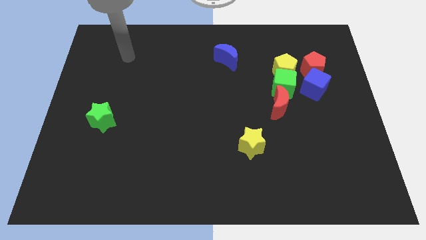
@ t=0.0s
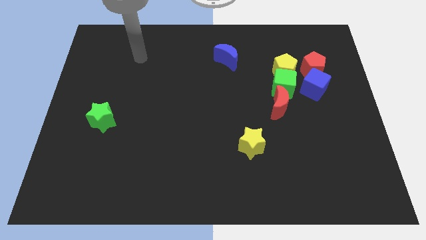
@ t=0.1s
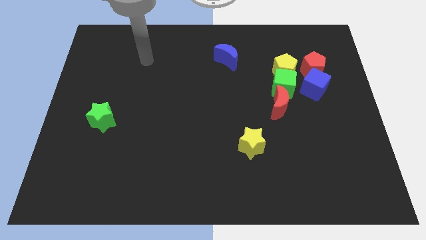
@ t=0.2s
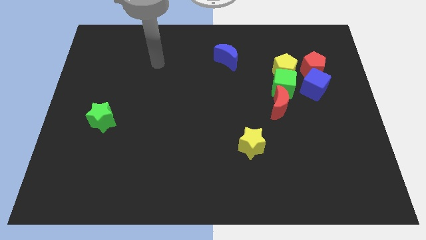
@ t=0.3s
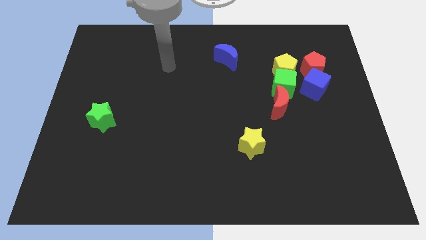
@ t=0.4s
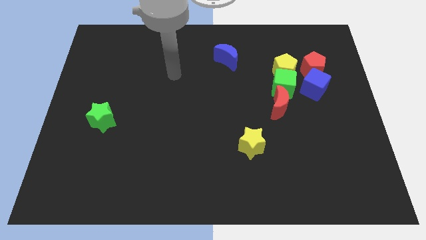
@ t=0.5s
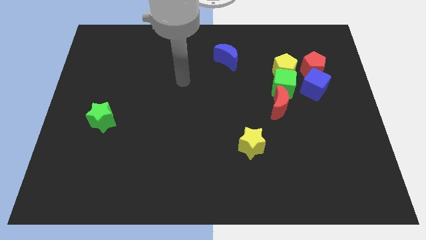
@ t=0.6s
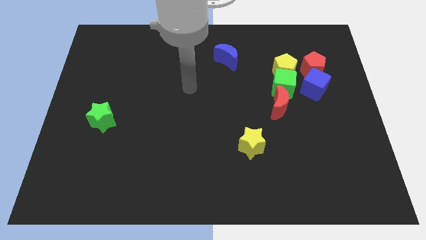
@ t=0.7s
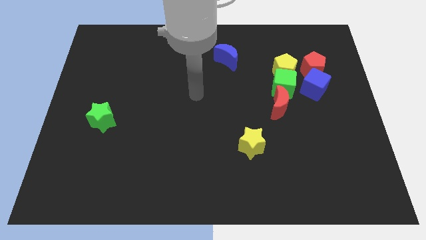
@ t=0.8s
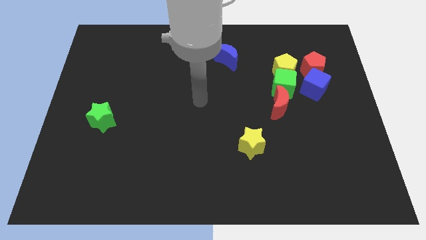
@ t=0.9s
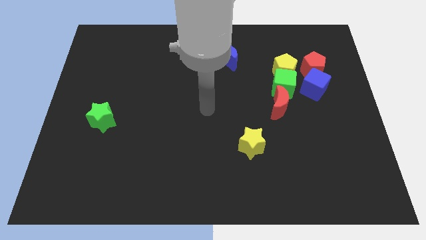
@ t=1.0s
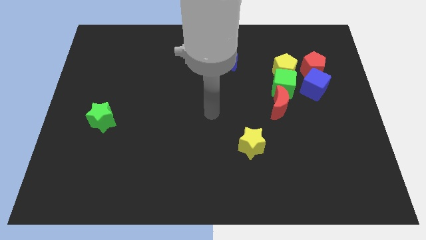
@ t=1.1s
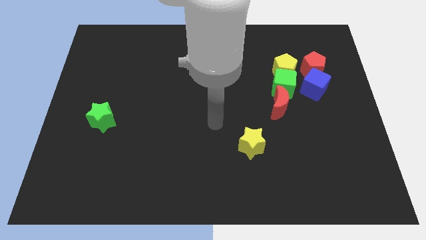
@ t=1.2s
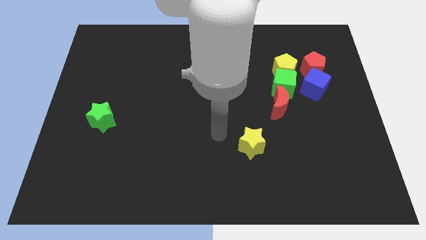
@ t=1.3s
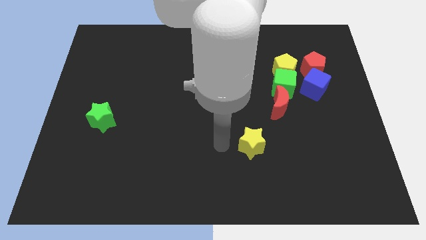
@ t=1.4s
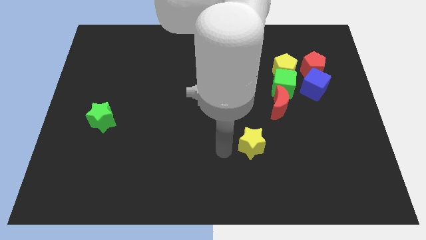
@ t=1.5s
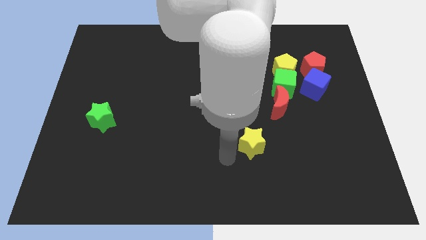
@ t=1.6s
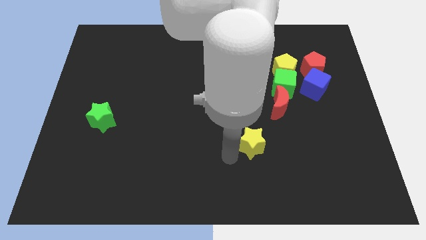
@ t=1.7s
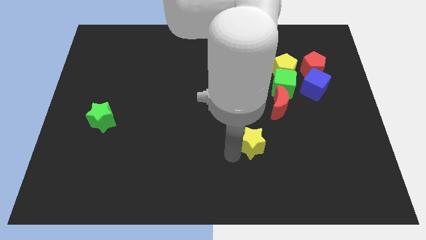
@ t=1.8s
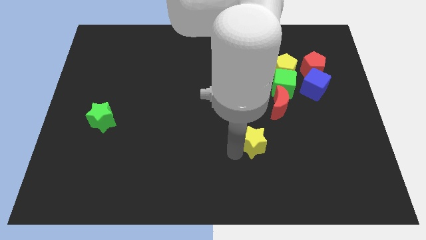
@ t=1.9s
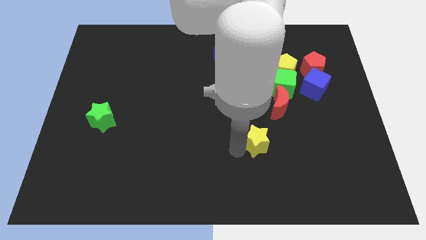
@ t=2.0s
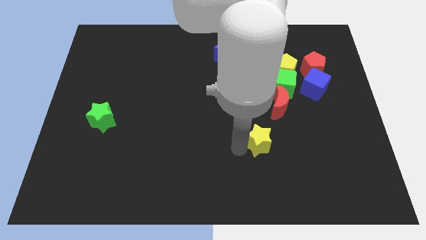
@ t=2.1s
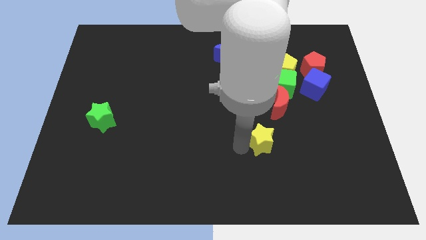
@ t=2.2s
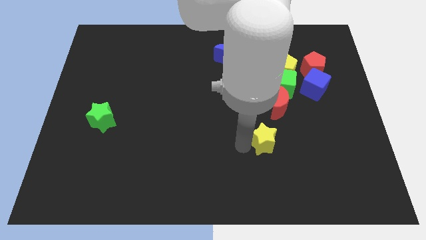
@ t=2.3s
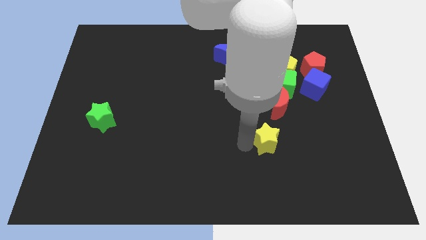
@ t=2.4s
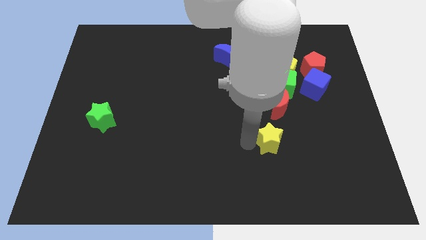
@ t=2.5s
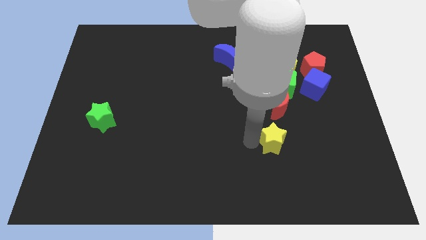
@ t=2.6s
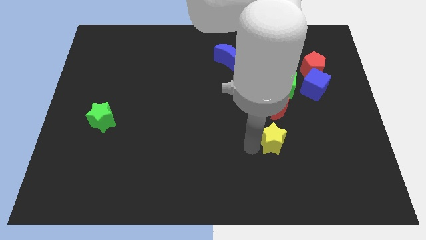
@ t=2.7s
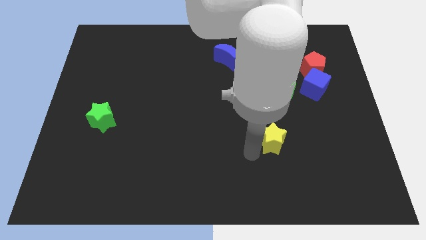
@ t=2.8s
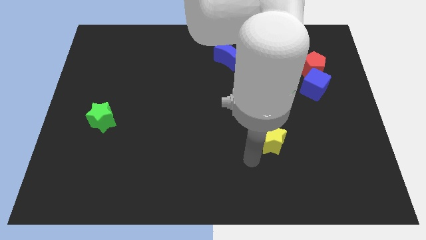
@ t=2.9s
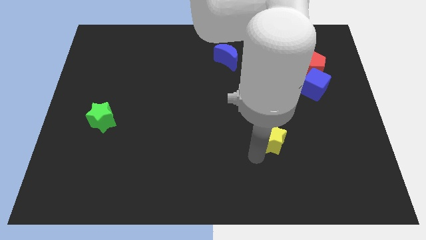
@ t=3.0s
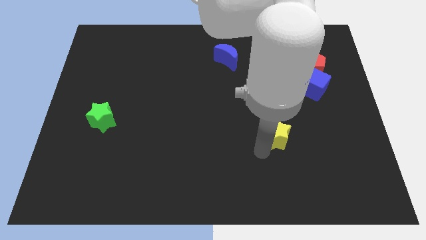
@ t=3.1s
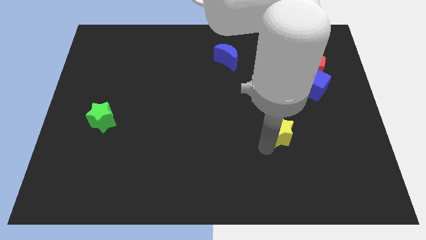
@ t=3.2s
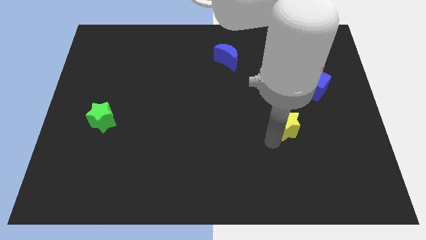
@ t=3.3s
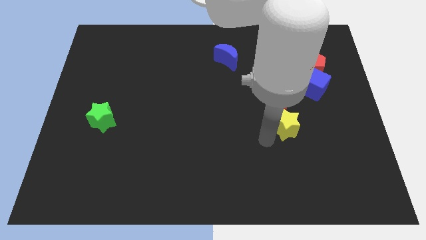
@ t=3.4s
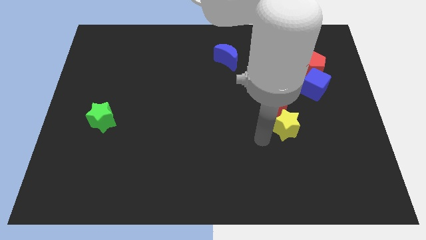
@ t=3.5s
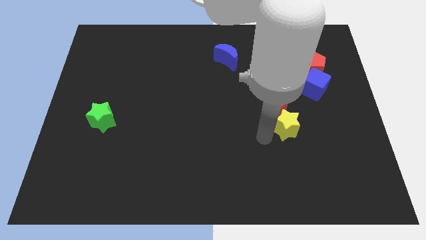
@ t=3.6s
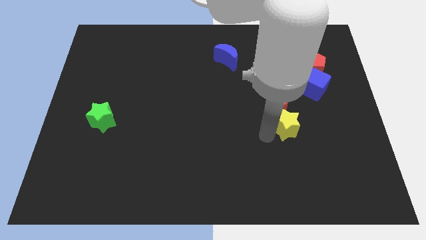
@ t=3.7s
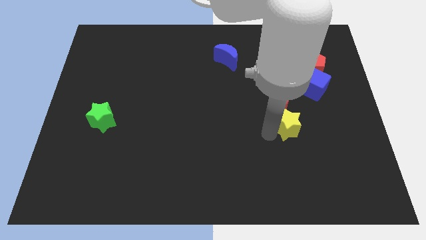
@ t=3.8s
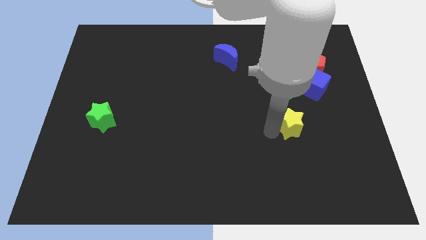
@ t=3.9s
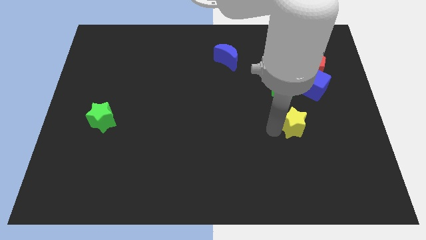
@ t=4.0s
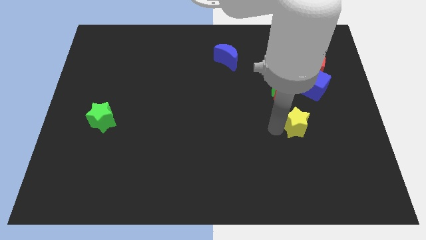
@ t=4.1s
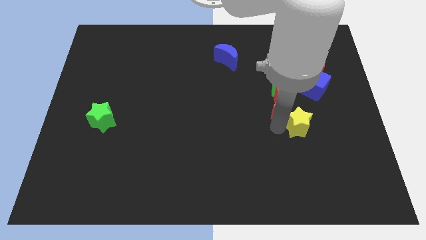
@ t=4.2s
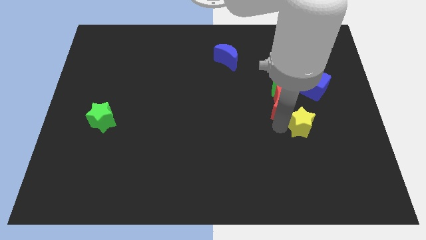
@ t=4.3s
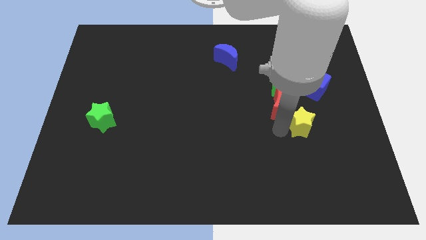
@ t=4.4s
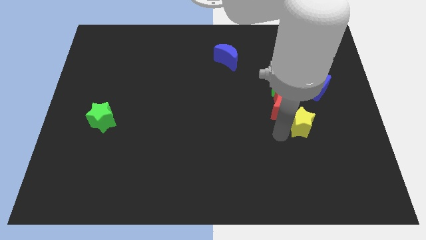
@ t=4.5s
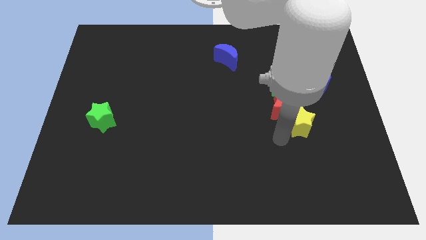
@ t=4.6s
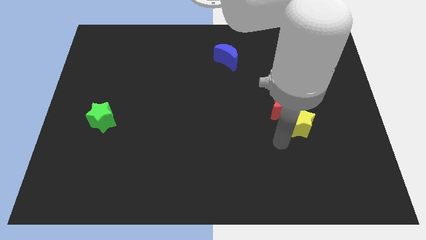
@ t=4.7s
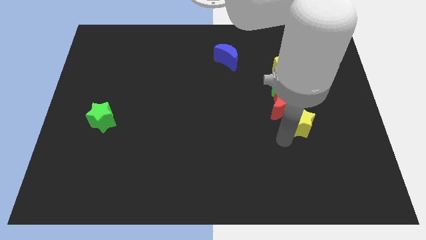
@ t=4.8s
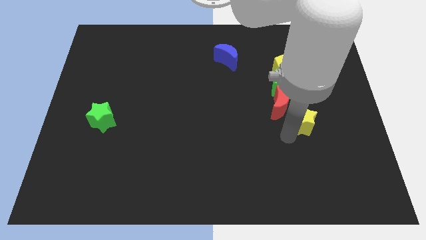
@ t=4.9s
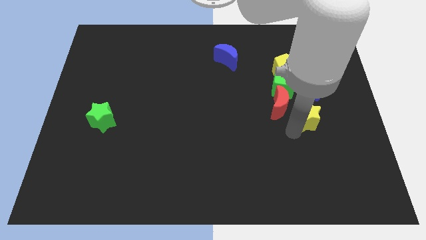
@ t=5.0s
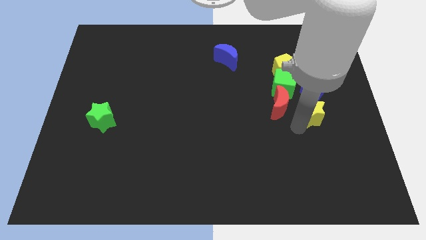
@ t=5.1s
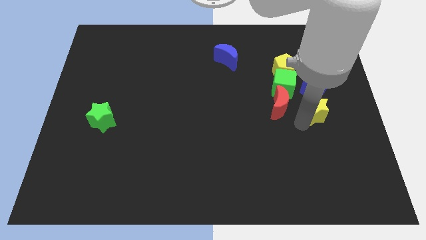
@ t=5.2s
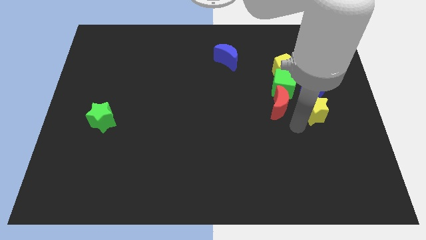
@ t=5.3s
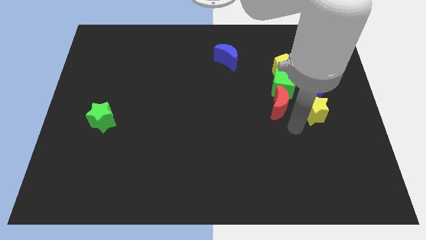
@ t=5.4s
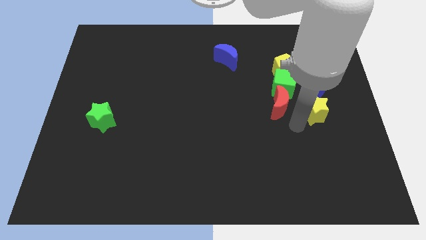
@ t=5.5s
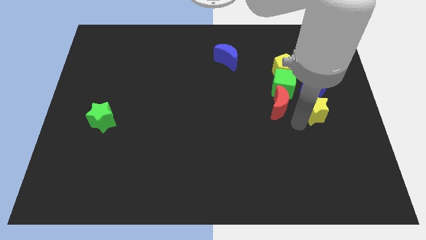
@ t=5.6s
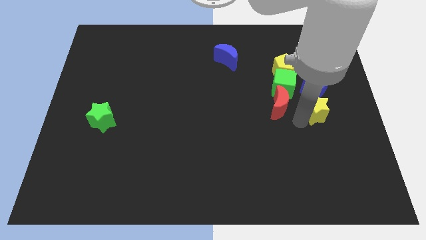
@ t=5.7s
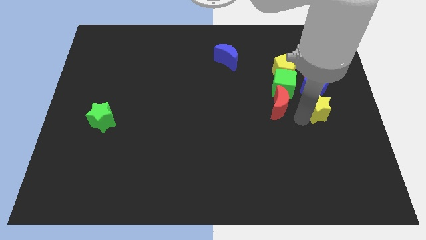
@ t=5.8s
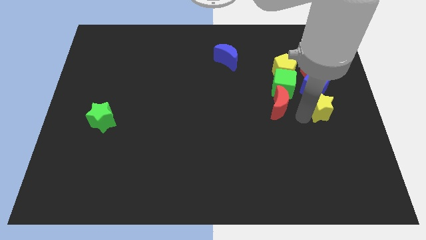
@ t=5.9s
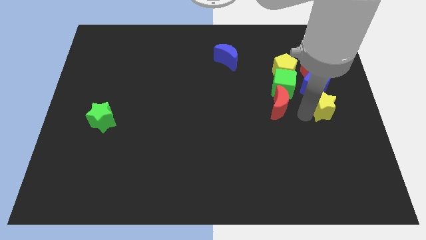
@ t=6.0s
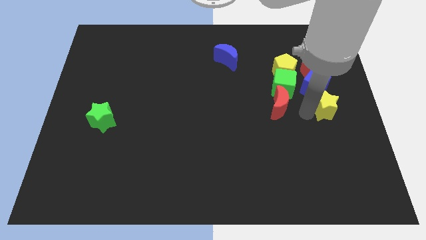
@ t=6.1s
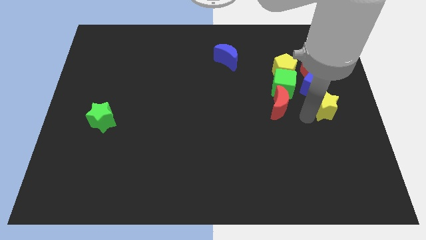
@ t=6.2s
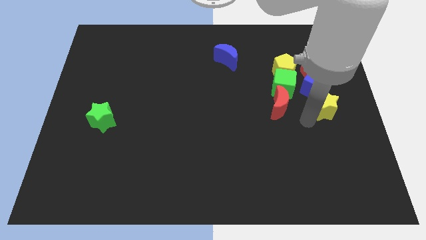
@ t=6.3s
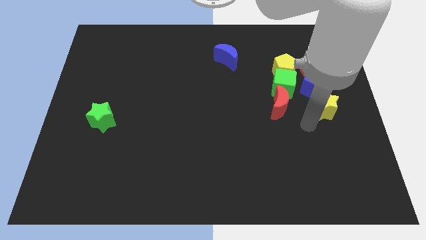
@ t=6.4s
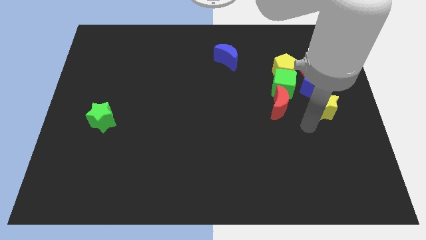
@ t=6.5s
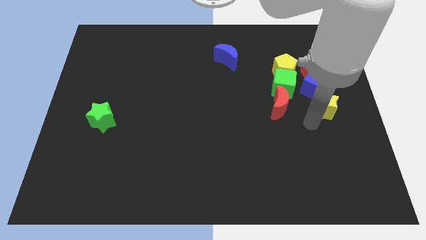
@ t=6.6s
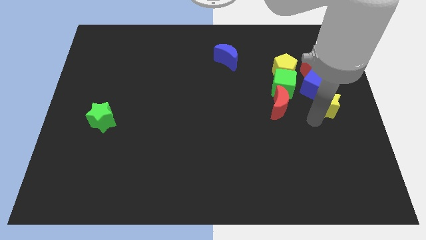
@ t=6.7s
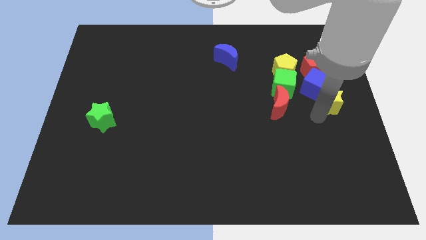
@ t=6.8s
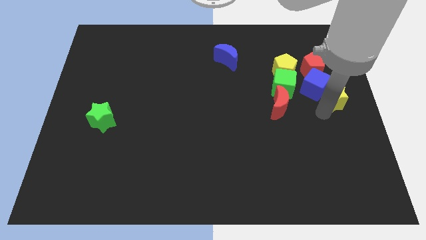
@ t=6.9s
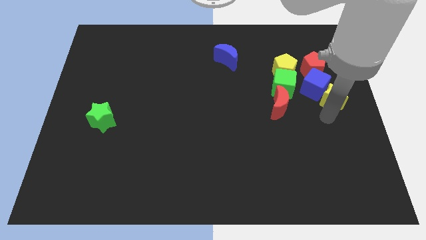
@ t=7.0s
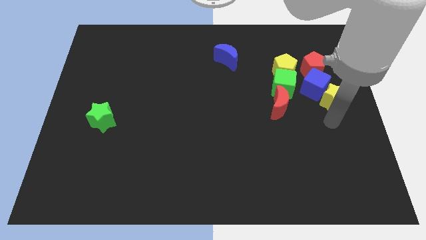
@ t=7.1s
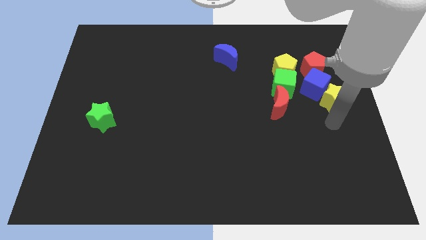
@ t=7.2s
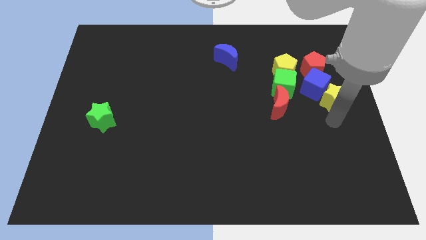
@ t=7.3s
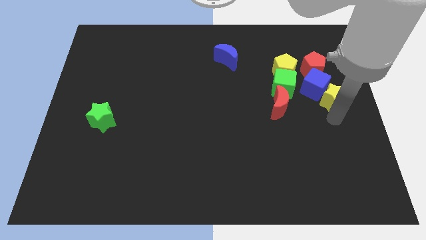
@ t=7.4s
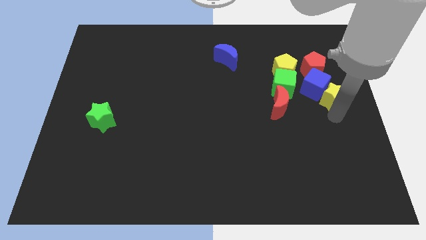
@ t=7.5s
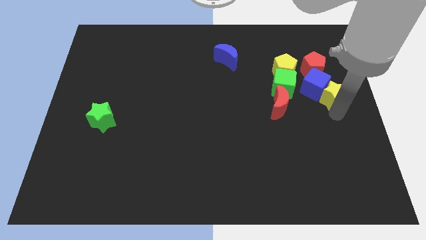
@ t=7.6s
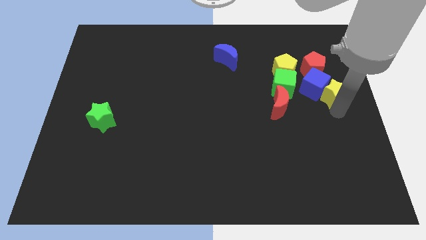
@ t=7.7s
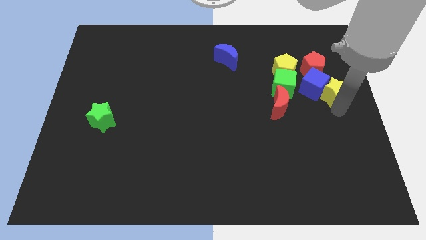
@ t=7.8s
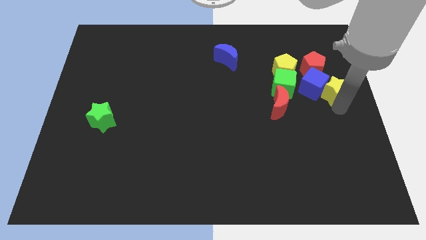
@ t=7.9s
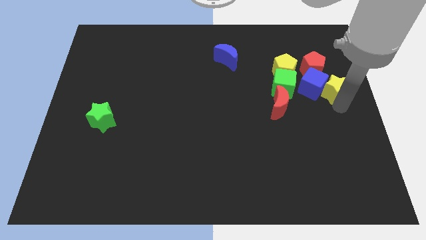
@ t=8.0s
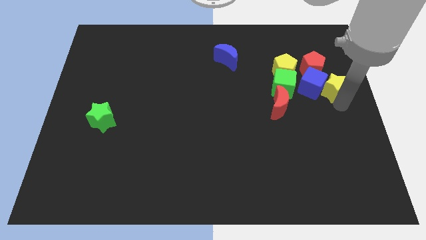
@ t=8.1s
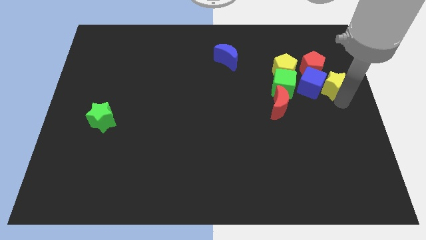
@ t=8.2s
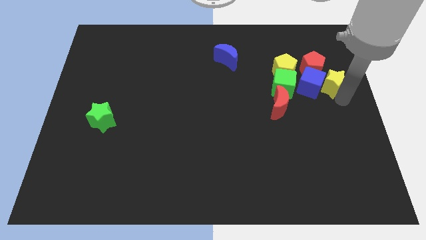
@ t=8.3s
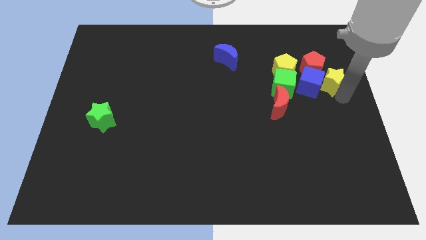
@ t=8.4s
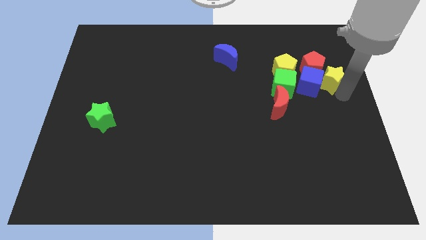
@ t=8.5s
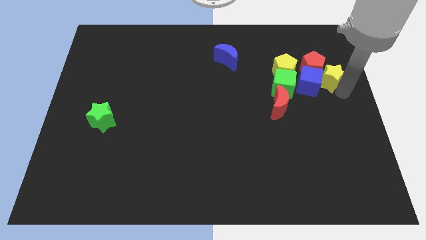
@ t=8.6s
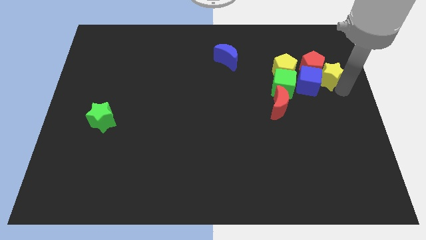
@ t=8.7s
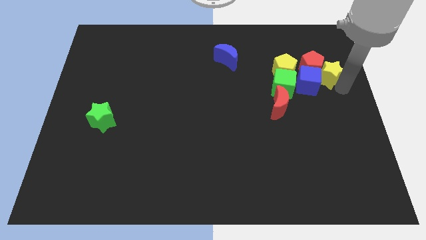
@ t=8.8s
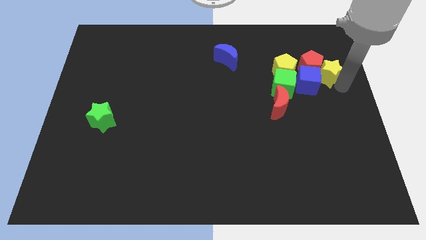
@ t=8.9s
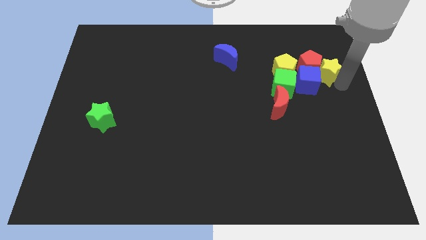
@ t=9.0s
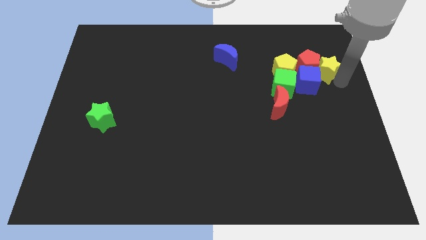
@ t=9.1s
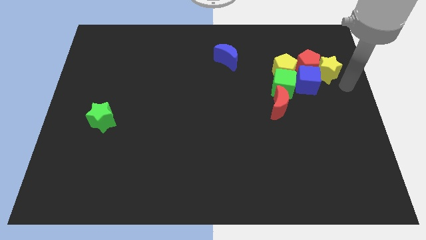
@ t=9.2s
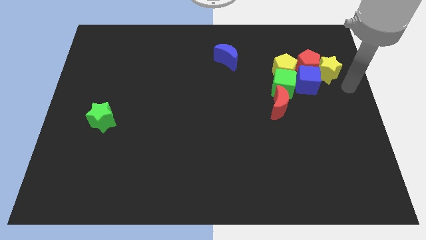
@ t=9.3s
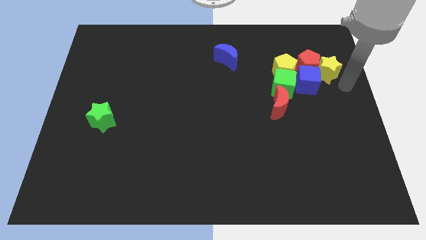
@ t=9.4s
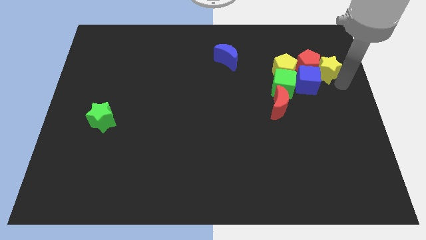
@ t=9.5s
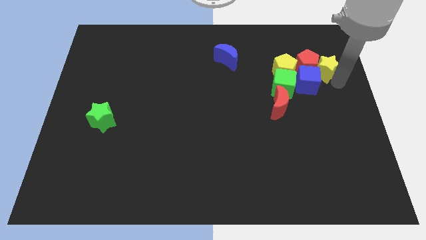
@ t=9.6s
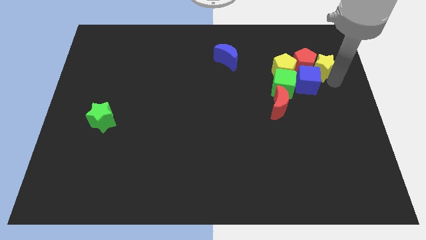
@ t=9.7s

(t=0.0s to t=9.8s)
push the yellow star to the top of the blue cube
